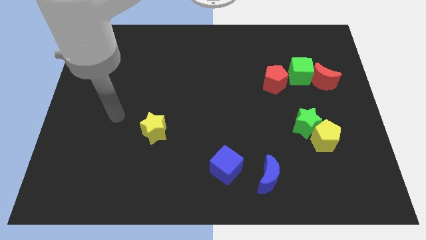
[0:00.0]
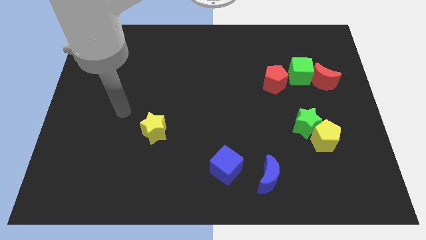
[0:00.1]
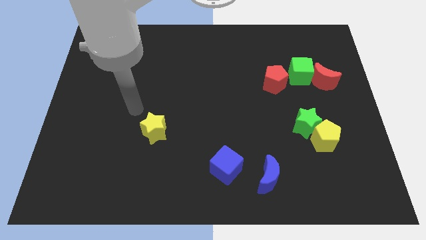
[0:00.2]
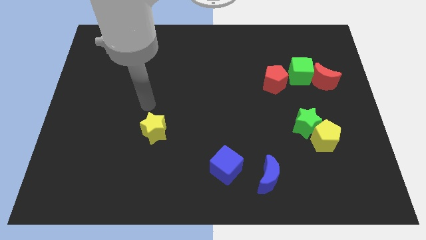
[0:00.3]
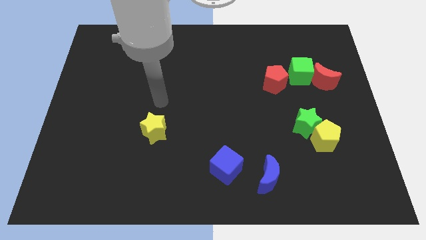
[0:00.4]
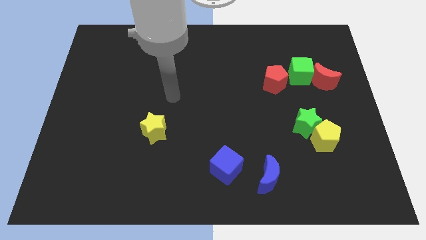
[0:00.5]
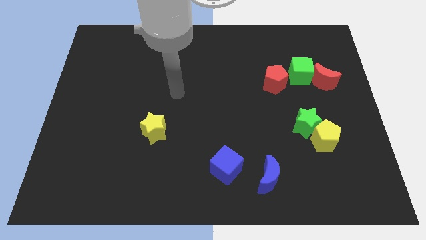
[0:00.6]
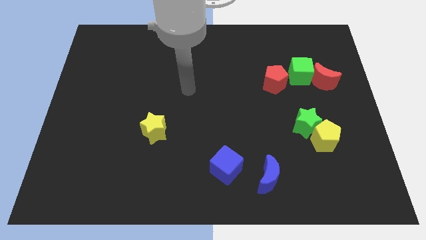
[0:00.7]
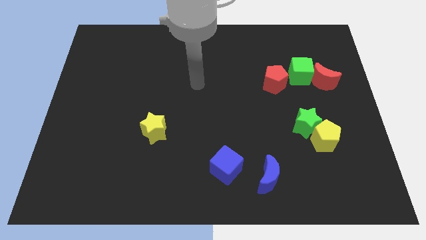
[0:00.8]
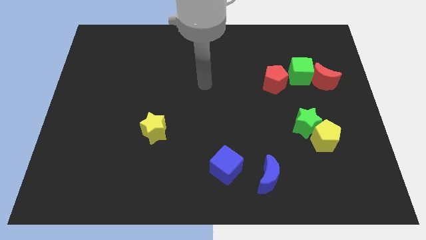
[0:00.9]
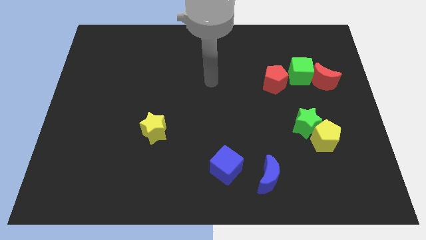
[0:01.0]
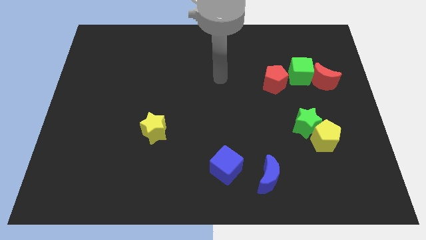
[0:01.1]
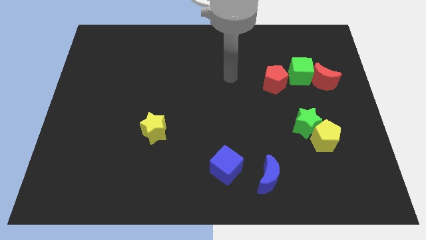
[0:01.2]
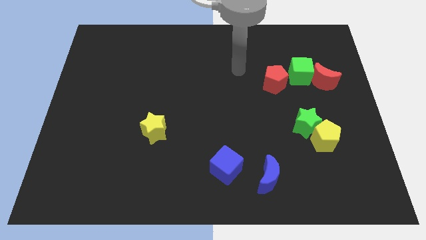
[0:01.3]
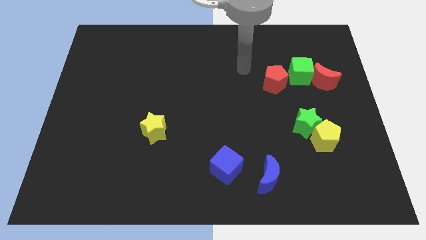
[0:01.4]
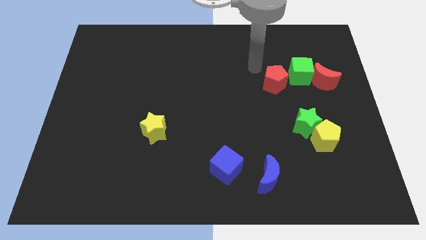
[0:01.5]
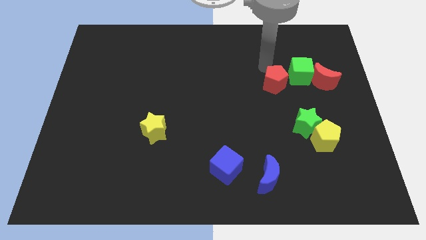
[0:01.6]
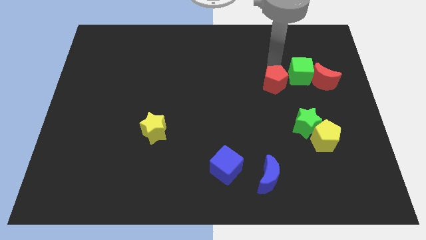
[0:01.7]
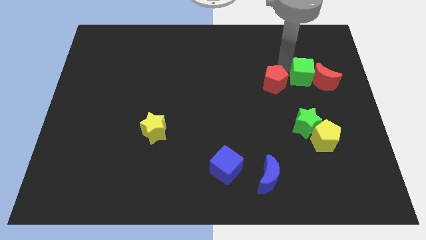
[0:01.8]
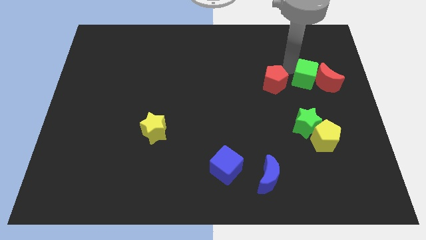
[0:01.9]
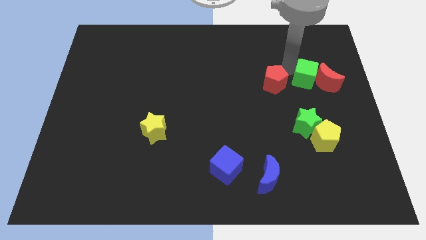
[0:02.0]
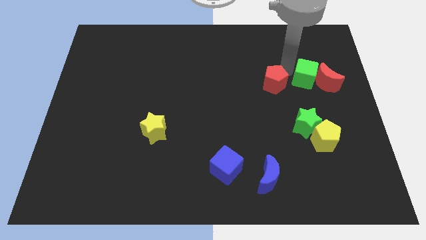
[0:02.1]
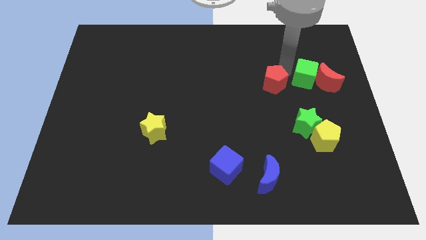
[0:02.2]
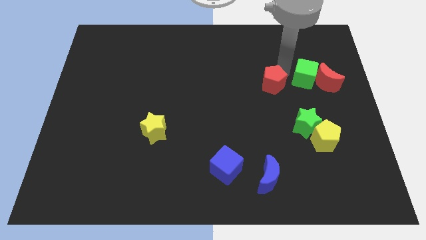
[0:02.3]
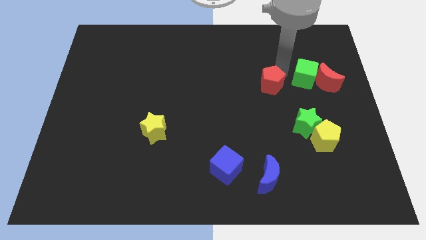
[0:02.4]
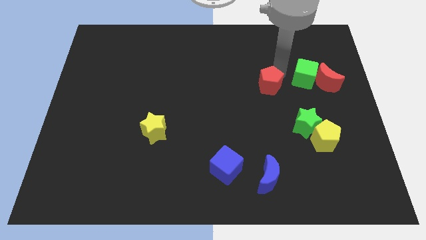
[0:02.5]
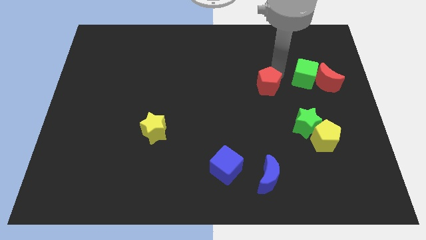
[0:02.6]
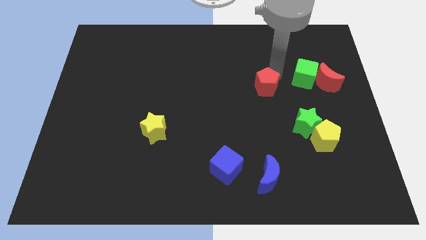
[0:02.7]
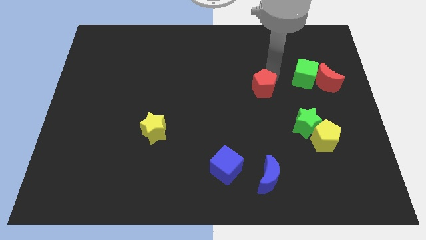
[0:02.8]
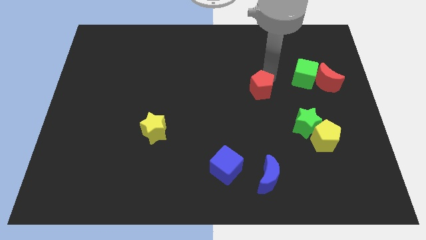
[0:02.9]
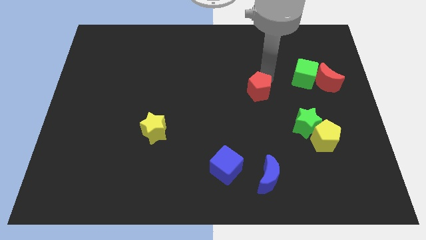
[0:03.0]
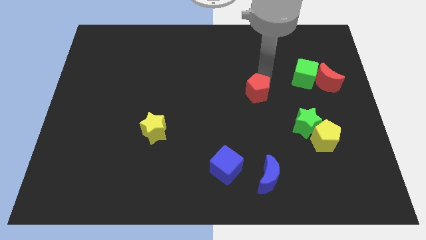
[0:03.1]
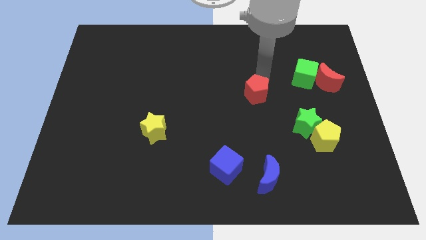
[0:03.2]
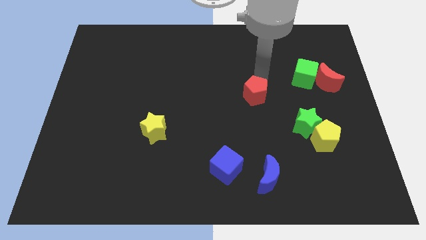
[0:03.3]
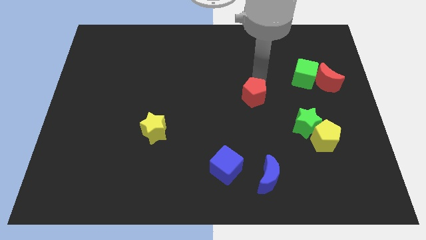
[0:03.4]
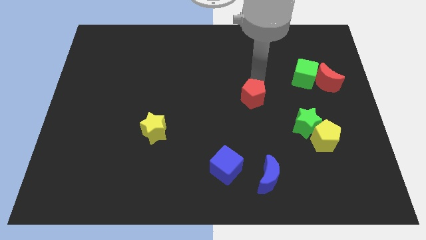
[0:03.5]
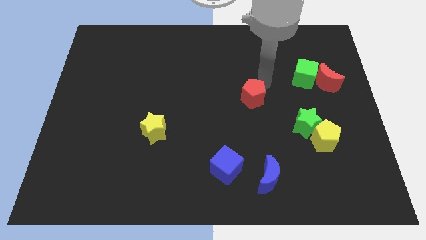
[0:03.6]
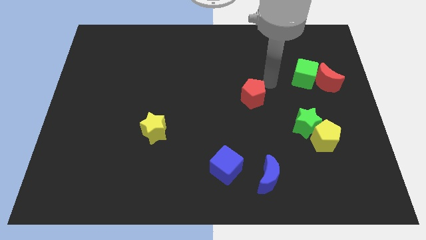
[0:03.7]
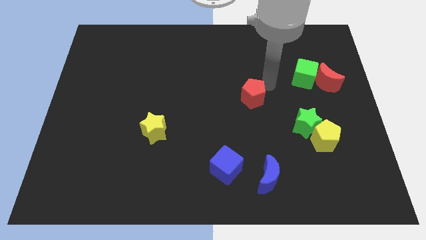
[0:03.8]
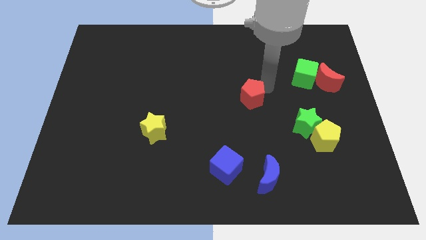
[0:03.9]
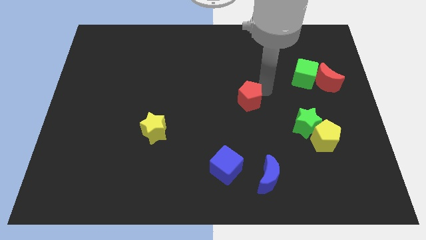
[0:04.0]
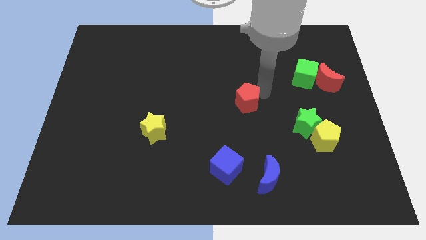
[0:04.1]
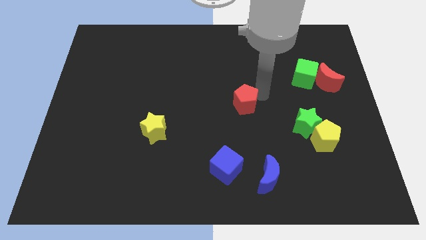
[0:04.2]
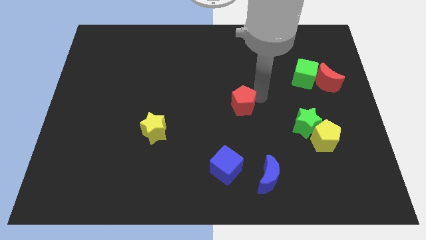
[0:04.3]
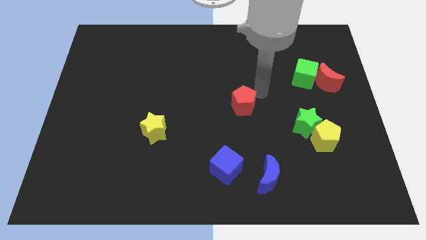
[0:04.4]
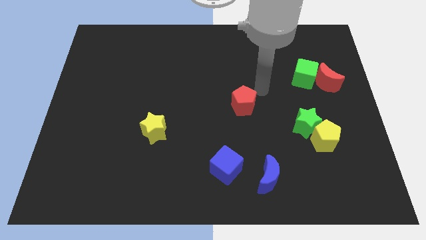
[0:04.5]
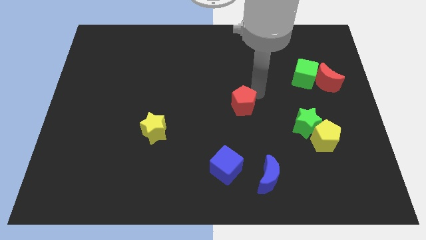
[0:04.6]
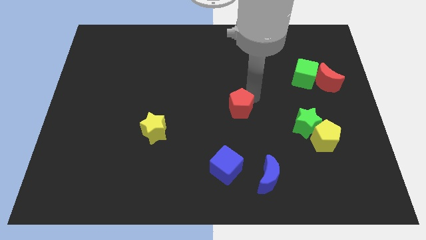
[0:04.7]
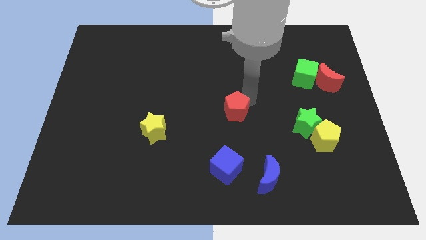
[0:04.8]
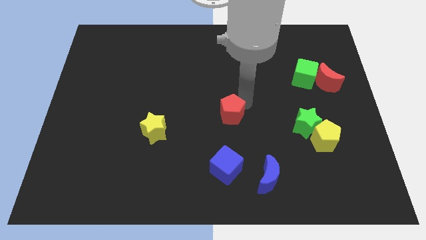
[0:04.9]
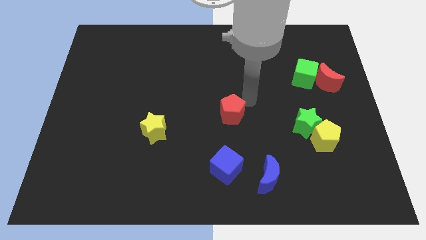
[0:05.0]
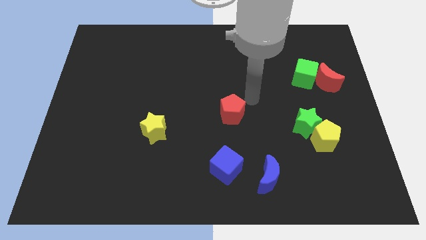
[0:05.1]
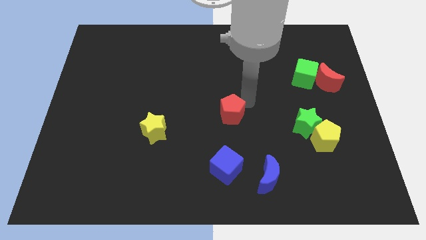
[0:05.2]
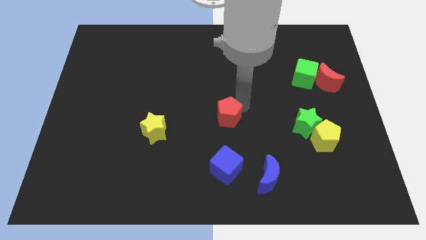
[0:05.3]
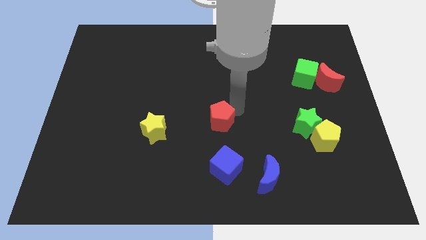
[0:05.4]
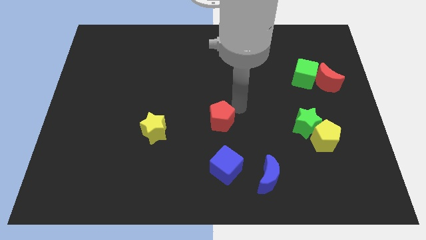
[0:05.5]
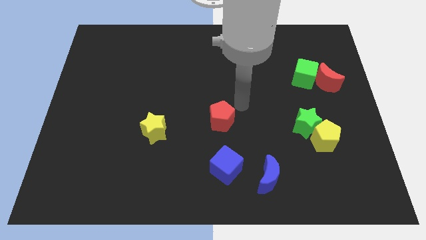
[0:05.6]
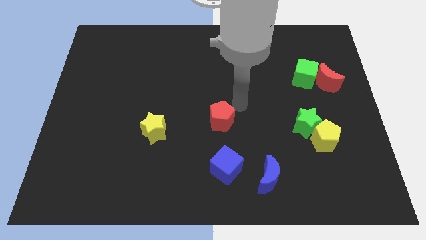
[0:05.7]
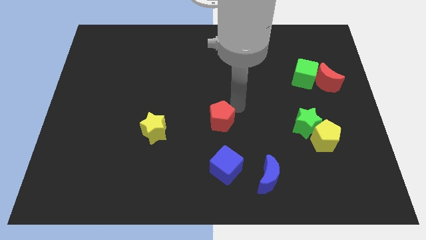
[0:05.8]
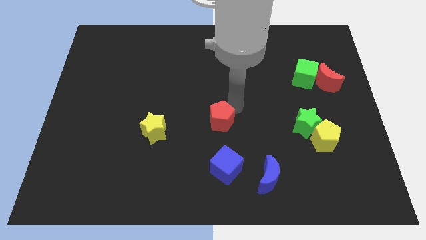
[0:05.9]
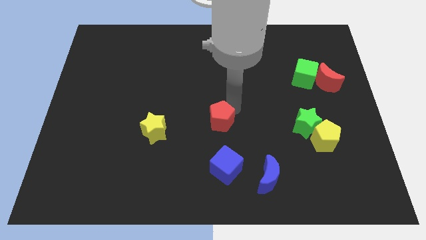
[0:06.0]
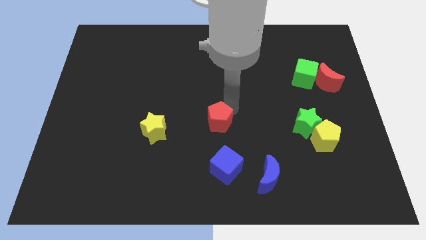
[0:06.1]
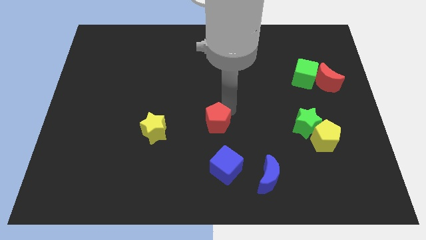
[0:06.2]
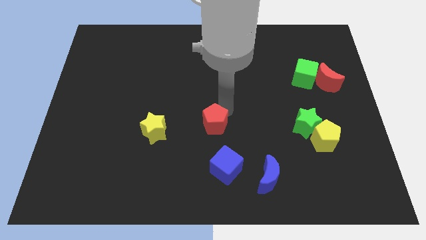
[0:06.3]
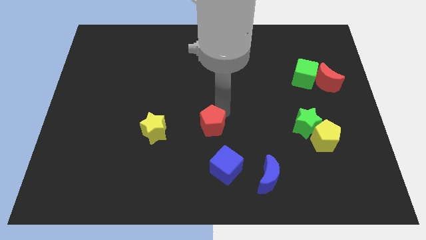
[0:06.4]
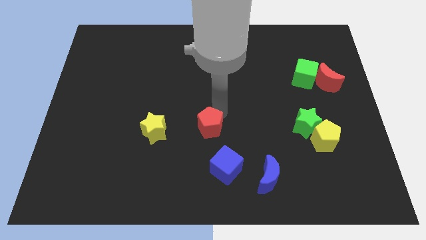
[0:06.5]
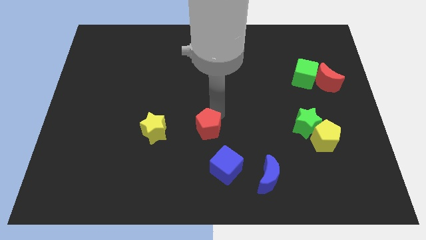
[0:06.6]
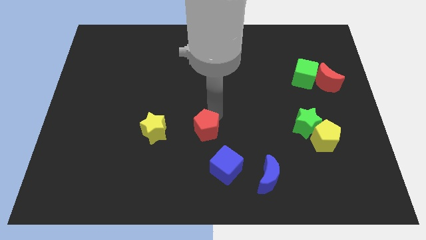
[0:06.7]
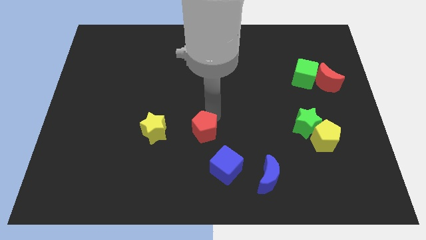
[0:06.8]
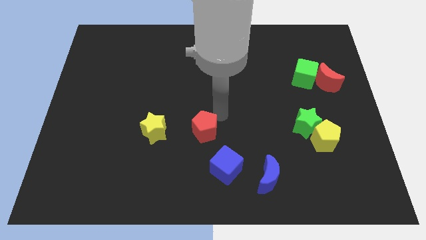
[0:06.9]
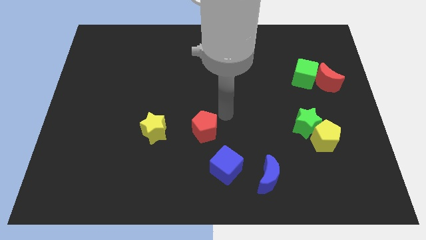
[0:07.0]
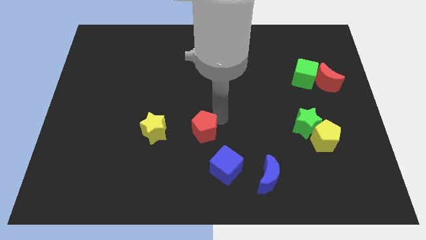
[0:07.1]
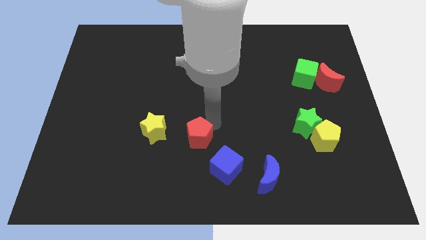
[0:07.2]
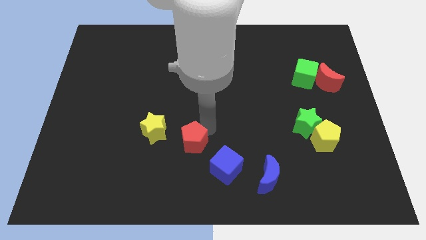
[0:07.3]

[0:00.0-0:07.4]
slide the red pentagon to the bottom right of the yellow star
